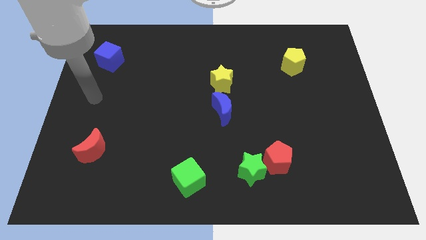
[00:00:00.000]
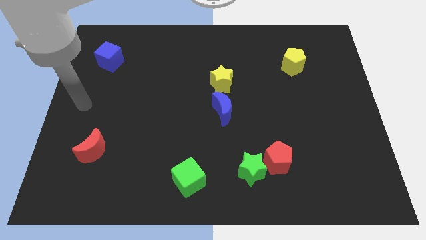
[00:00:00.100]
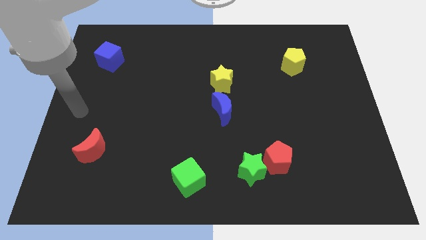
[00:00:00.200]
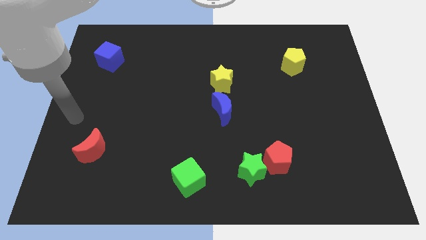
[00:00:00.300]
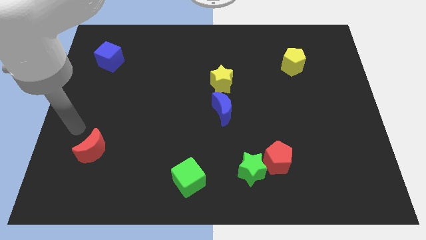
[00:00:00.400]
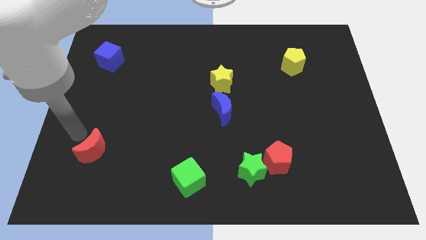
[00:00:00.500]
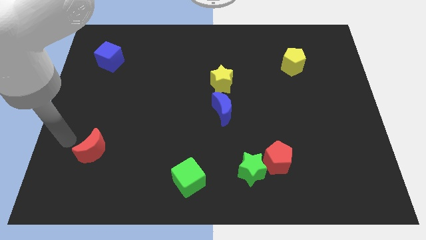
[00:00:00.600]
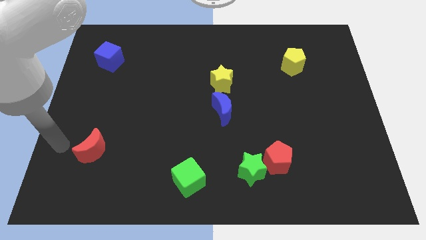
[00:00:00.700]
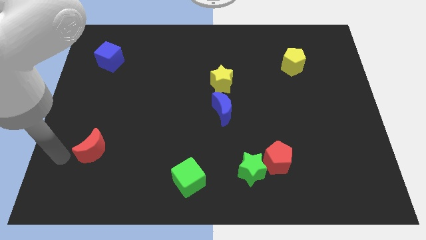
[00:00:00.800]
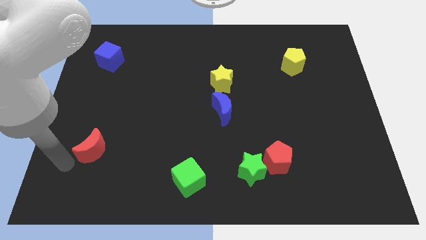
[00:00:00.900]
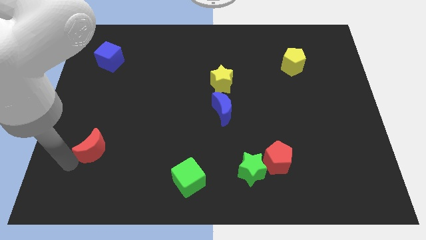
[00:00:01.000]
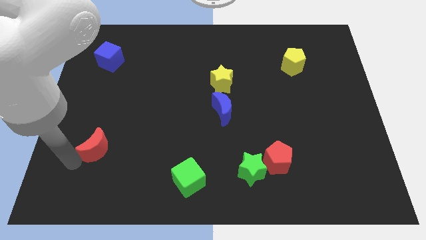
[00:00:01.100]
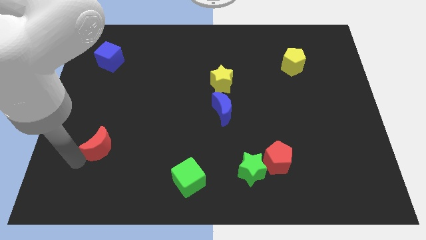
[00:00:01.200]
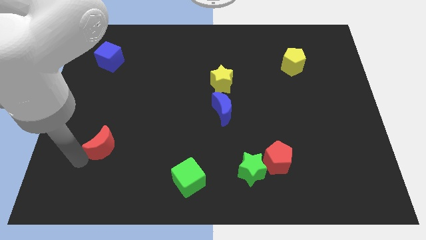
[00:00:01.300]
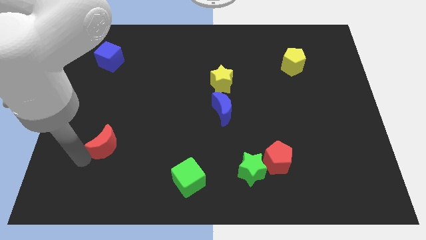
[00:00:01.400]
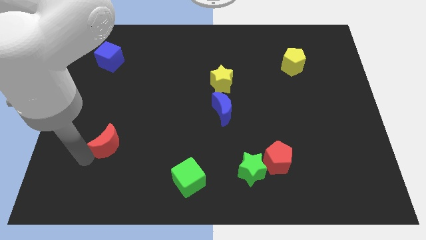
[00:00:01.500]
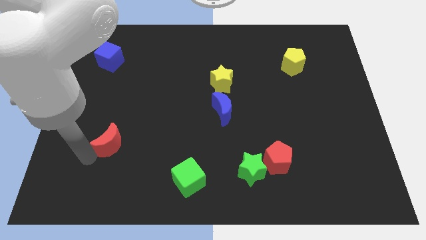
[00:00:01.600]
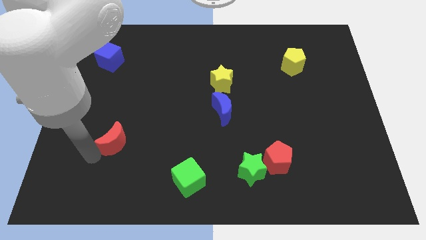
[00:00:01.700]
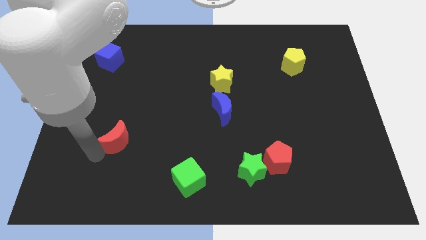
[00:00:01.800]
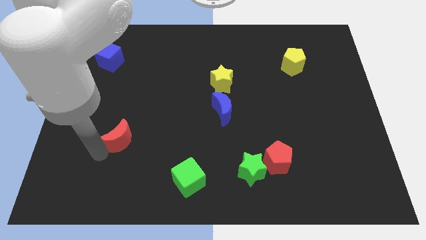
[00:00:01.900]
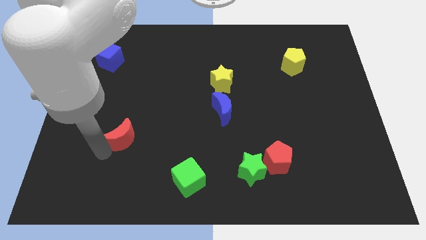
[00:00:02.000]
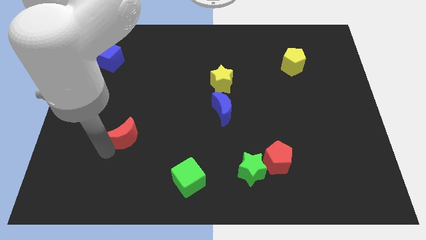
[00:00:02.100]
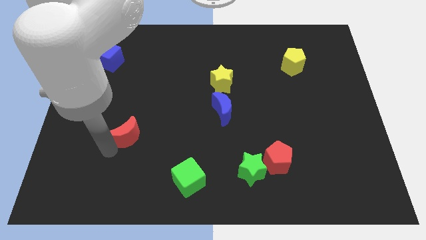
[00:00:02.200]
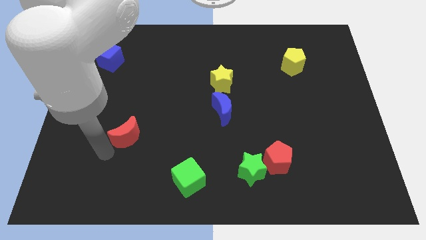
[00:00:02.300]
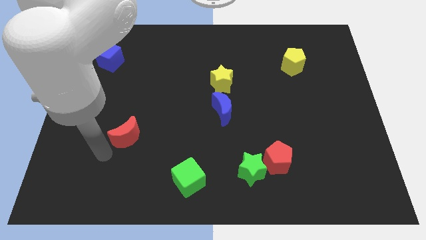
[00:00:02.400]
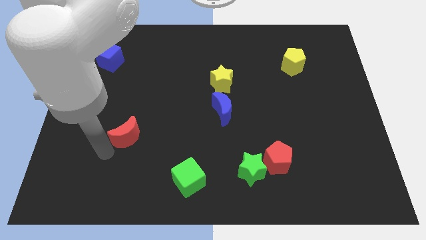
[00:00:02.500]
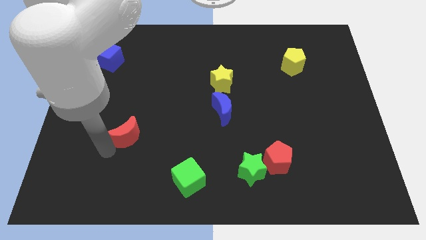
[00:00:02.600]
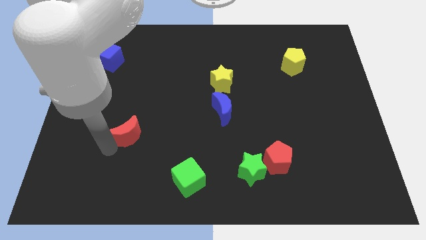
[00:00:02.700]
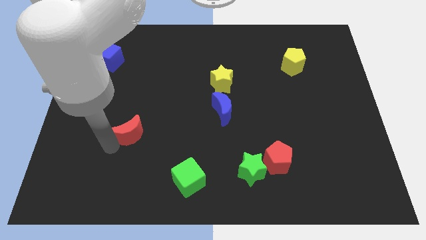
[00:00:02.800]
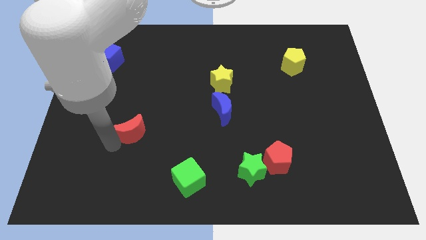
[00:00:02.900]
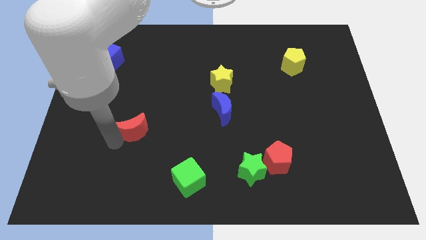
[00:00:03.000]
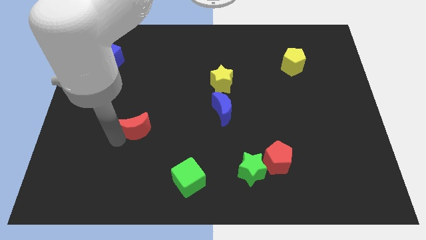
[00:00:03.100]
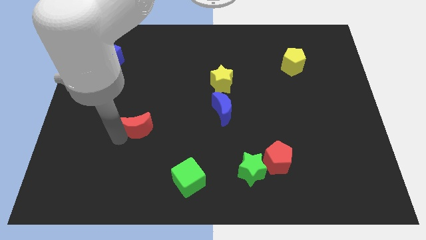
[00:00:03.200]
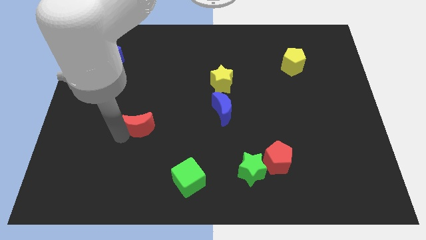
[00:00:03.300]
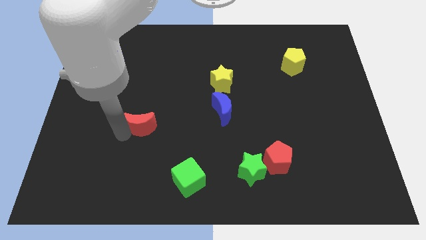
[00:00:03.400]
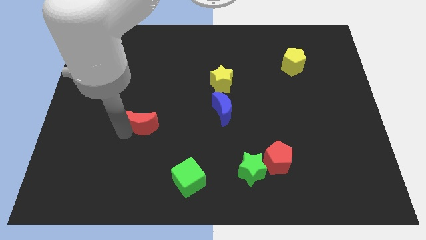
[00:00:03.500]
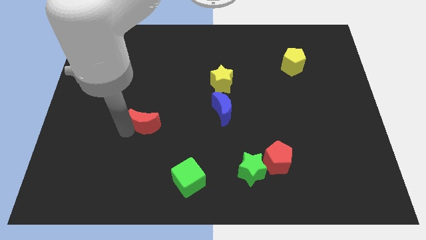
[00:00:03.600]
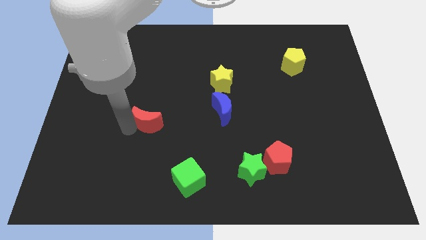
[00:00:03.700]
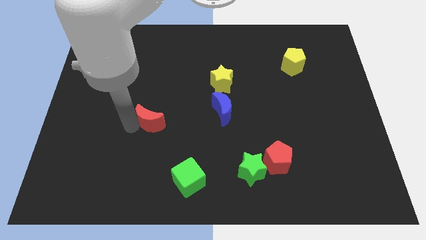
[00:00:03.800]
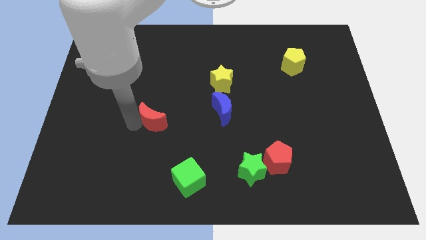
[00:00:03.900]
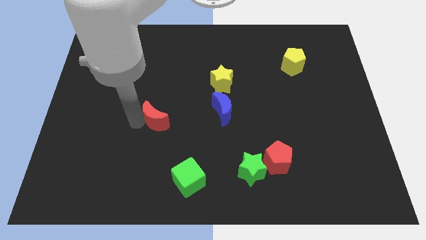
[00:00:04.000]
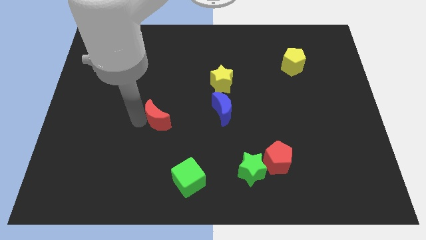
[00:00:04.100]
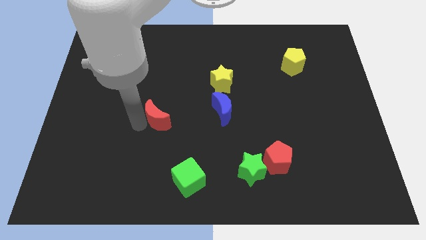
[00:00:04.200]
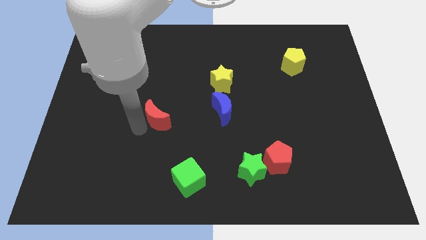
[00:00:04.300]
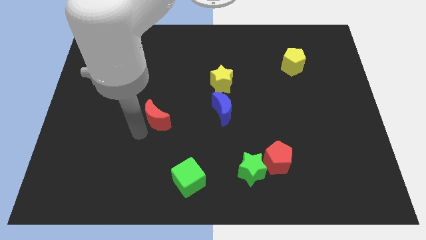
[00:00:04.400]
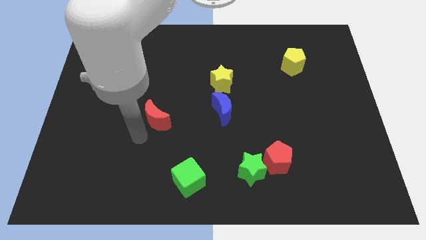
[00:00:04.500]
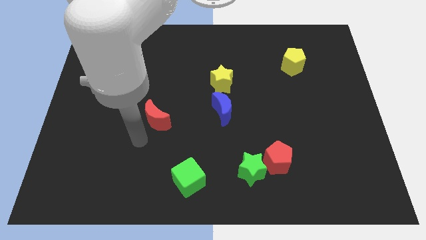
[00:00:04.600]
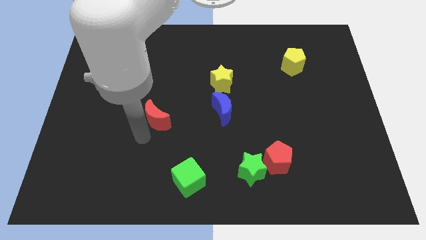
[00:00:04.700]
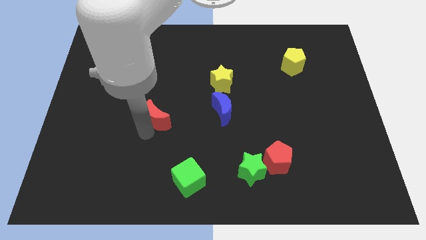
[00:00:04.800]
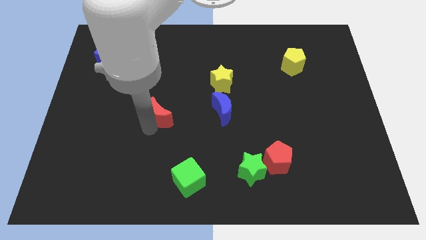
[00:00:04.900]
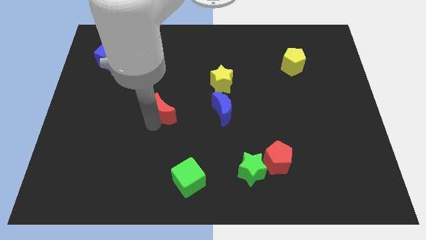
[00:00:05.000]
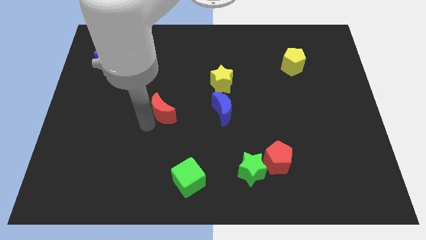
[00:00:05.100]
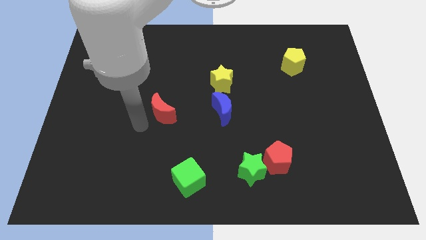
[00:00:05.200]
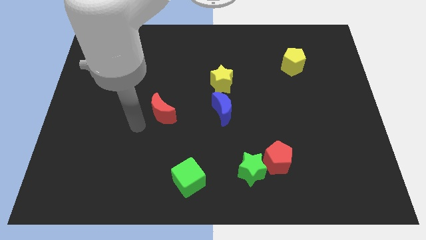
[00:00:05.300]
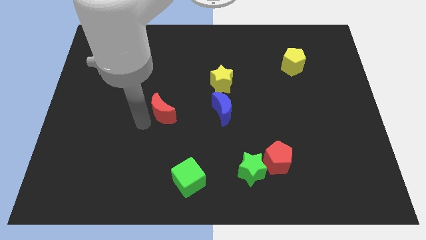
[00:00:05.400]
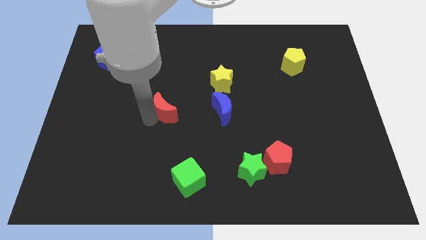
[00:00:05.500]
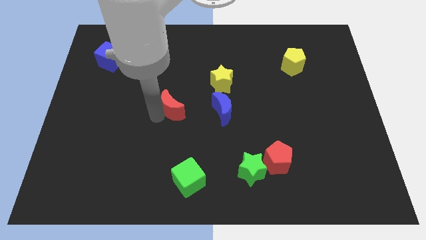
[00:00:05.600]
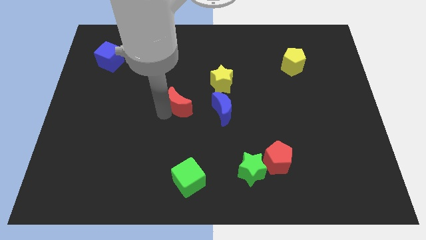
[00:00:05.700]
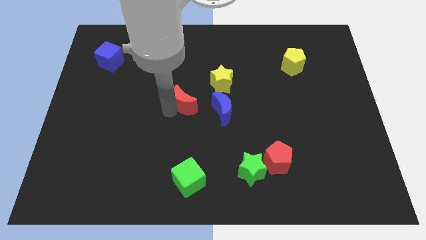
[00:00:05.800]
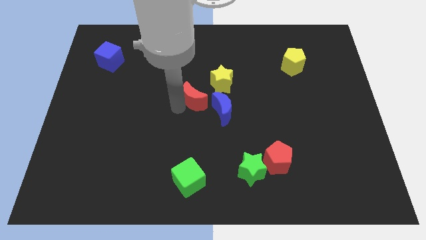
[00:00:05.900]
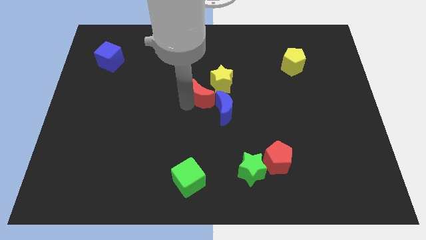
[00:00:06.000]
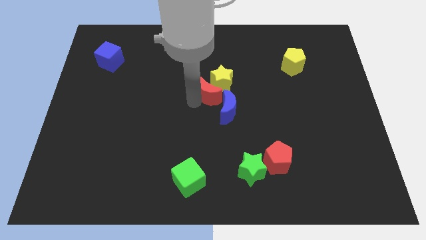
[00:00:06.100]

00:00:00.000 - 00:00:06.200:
push the red moon next to the yellow star

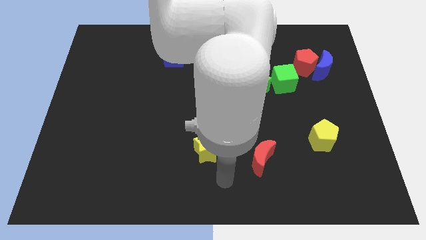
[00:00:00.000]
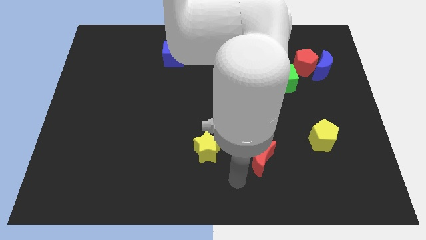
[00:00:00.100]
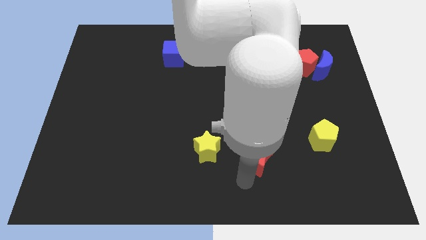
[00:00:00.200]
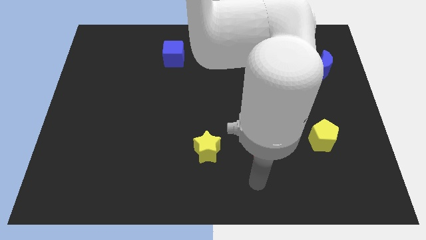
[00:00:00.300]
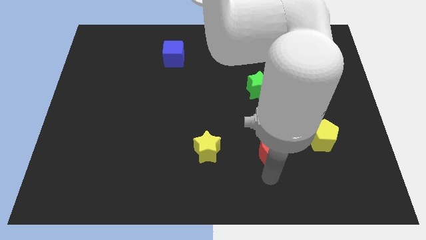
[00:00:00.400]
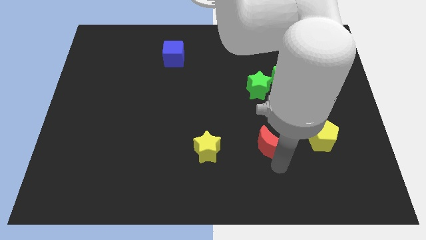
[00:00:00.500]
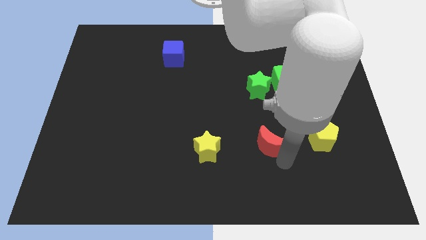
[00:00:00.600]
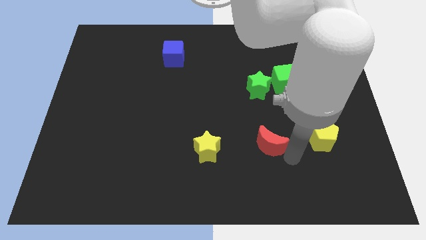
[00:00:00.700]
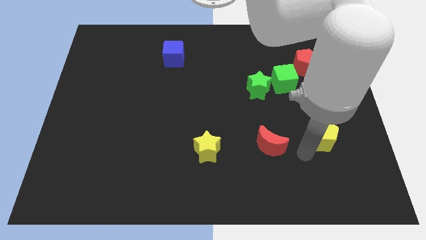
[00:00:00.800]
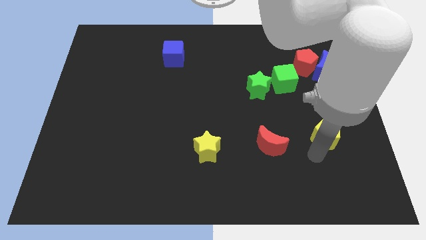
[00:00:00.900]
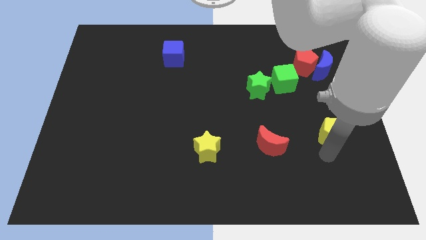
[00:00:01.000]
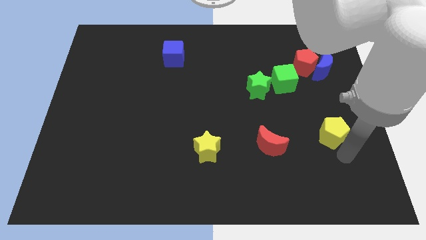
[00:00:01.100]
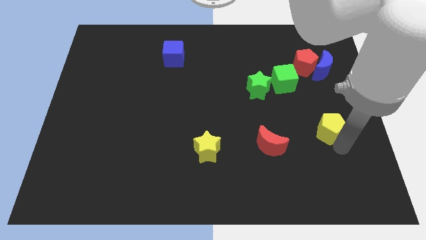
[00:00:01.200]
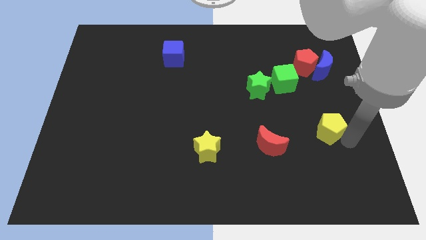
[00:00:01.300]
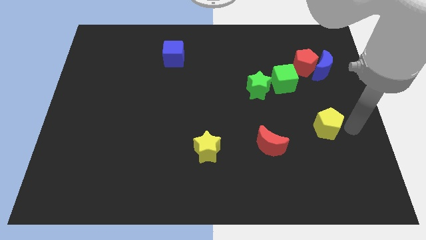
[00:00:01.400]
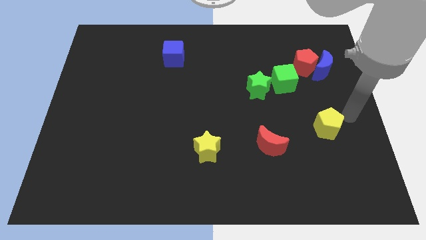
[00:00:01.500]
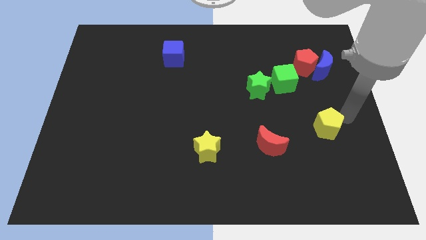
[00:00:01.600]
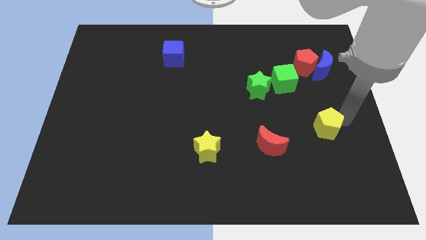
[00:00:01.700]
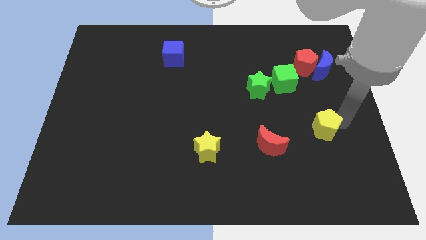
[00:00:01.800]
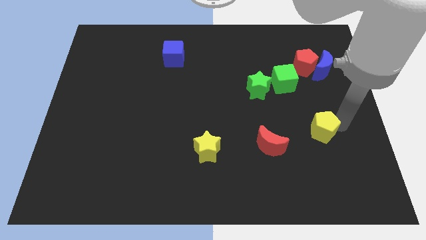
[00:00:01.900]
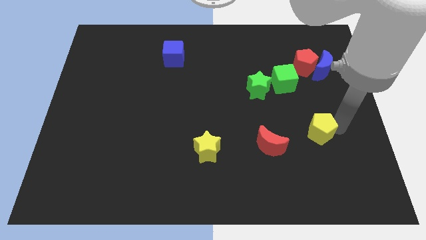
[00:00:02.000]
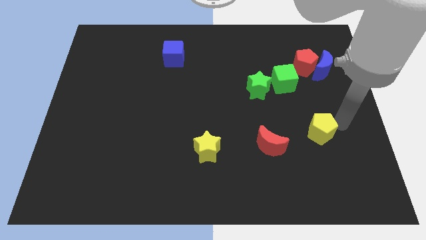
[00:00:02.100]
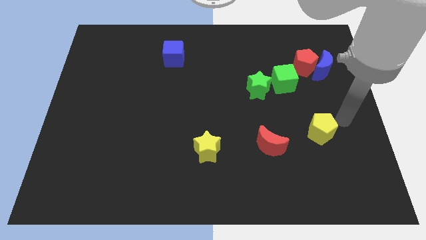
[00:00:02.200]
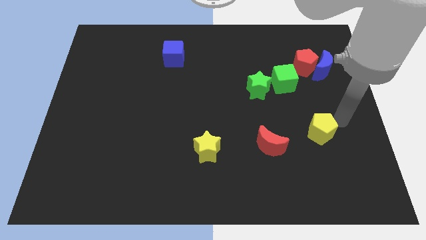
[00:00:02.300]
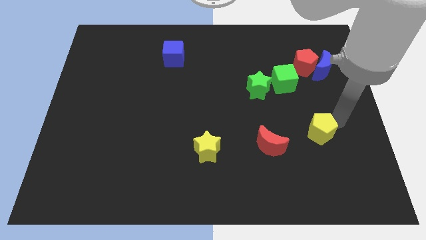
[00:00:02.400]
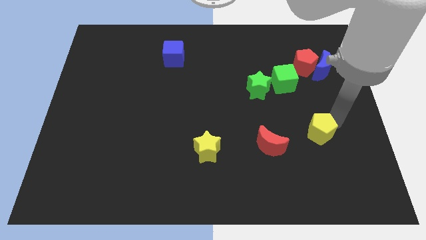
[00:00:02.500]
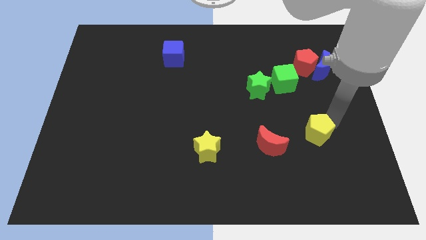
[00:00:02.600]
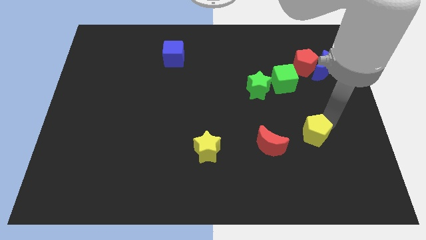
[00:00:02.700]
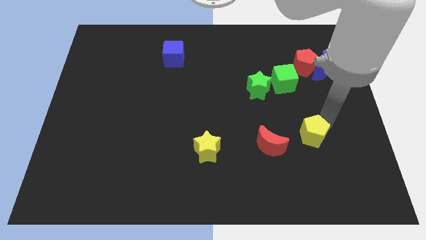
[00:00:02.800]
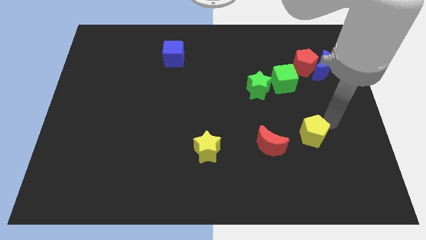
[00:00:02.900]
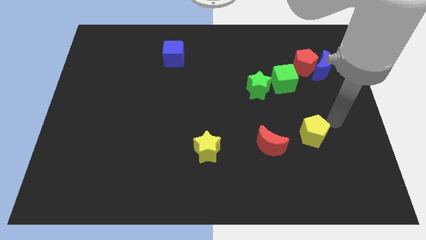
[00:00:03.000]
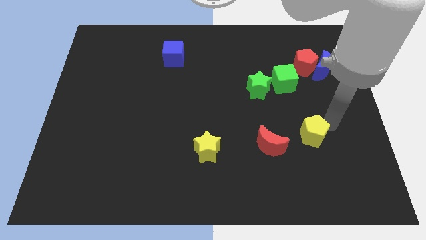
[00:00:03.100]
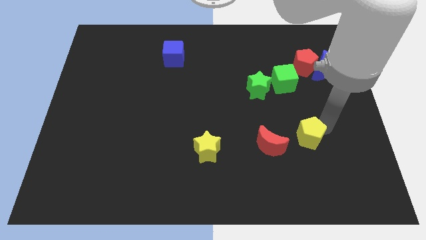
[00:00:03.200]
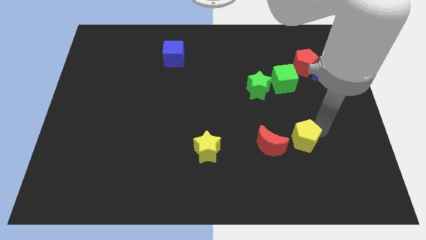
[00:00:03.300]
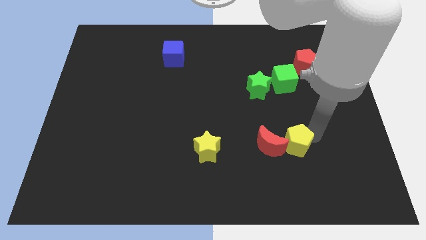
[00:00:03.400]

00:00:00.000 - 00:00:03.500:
push the yellow pentagon towards the red moon
